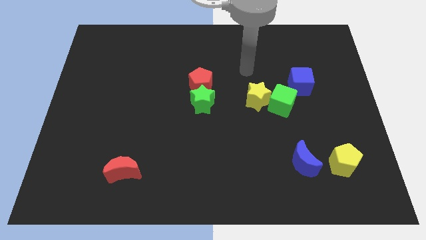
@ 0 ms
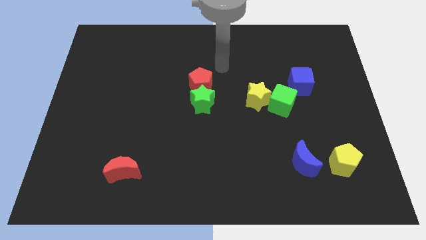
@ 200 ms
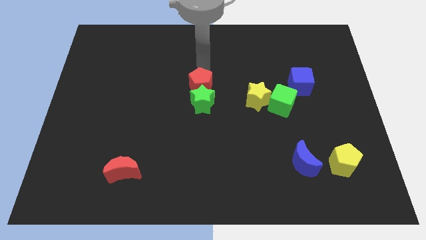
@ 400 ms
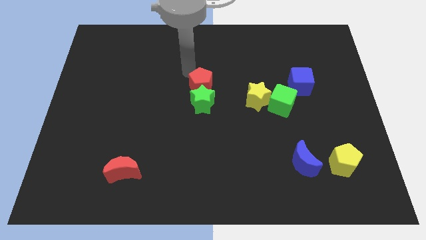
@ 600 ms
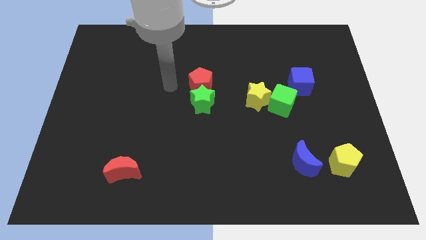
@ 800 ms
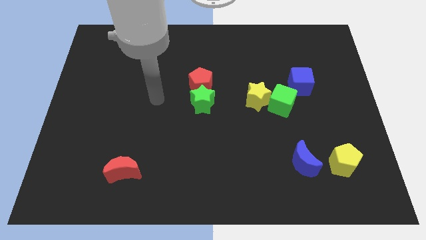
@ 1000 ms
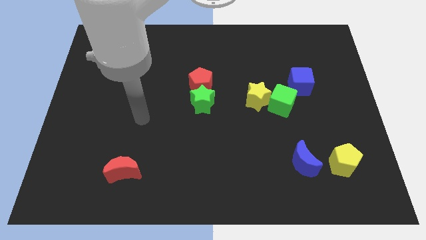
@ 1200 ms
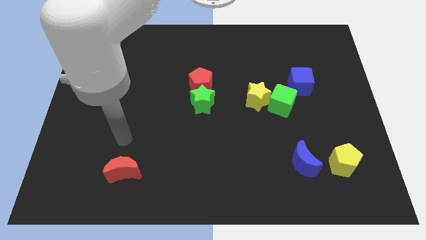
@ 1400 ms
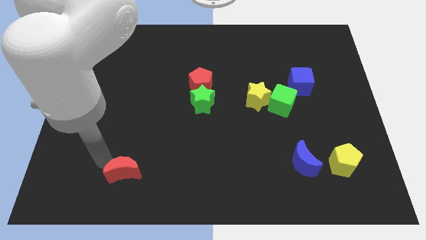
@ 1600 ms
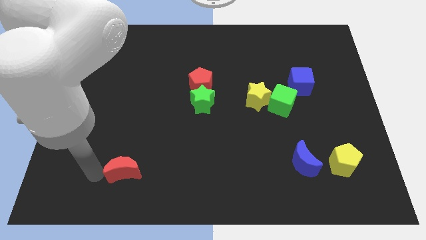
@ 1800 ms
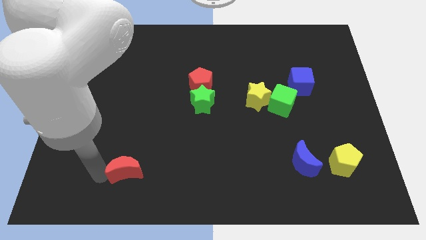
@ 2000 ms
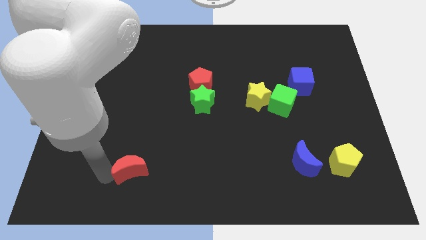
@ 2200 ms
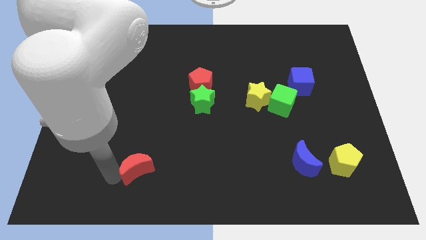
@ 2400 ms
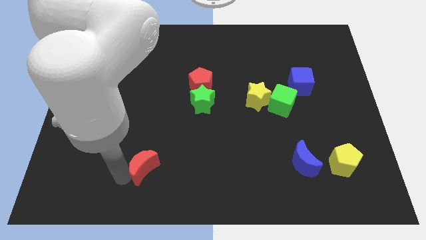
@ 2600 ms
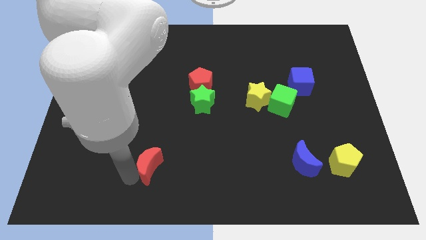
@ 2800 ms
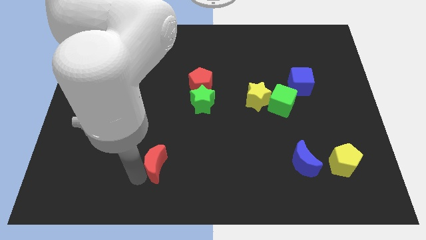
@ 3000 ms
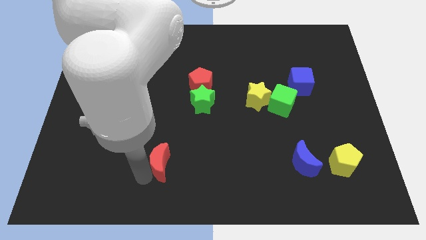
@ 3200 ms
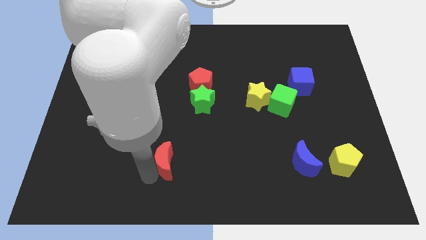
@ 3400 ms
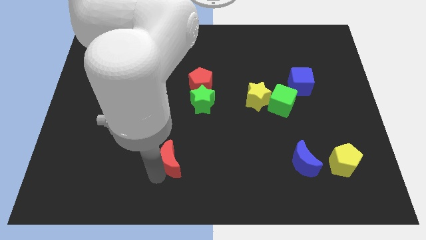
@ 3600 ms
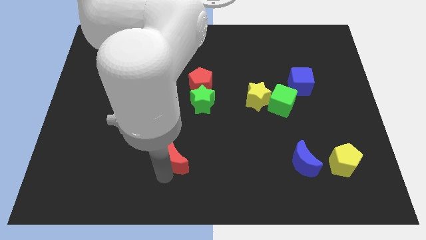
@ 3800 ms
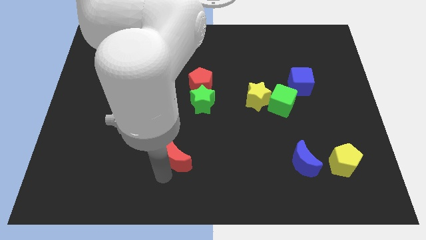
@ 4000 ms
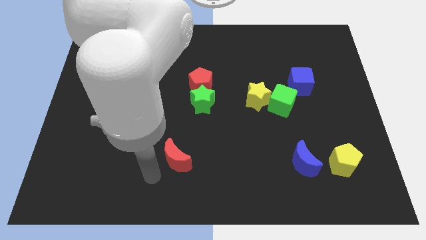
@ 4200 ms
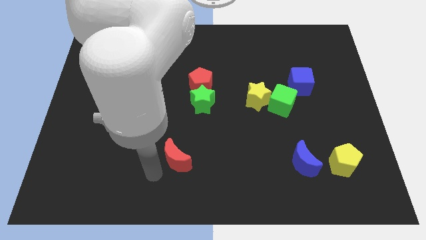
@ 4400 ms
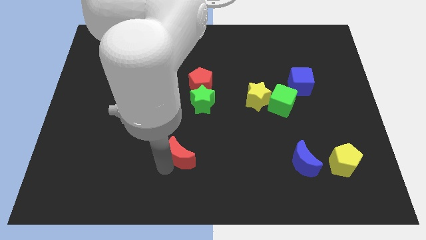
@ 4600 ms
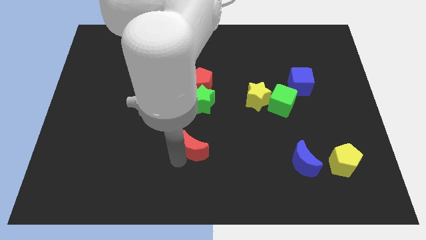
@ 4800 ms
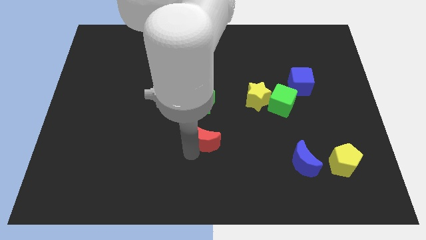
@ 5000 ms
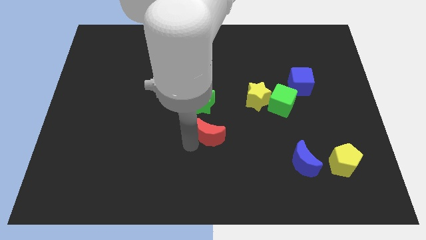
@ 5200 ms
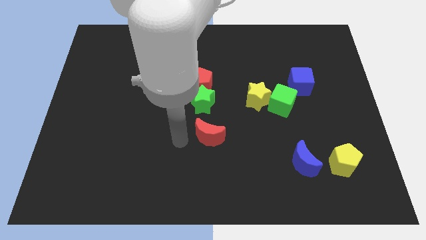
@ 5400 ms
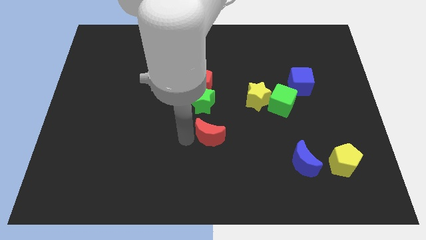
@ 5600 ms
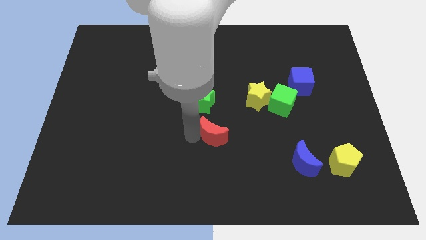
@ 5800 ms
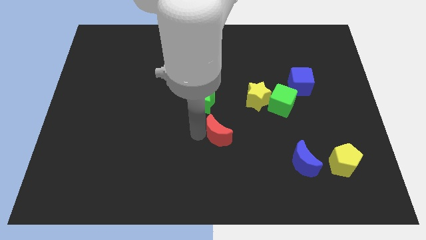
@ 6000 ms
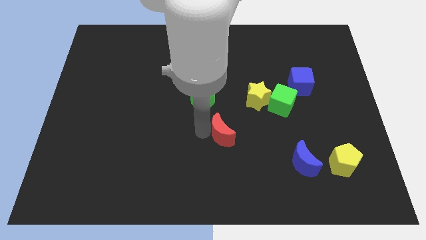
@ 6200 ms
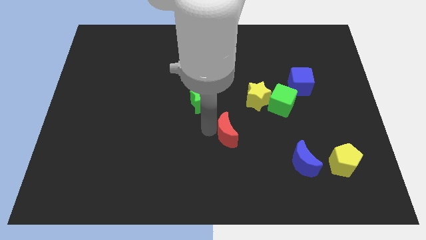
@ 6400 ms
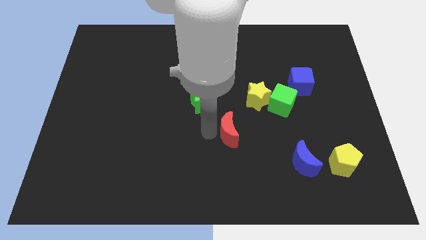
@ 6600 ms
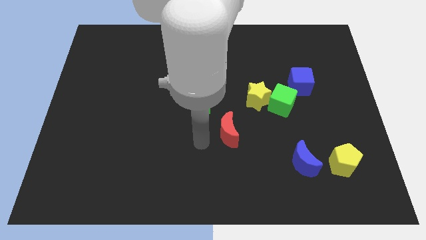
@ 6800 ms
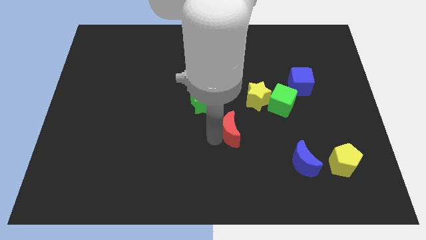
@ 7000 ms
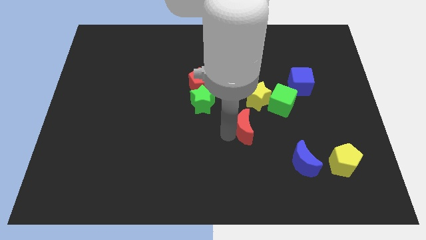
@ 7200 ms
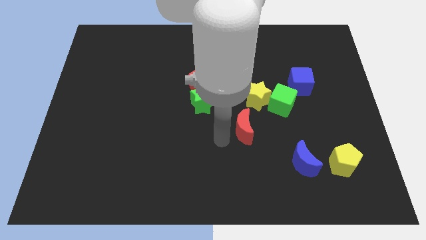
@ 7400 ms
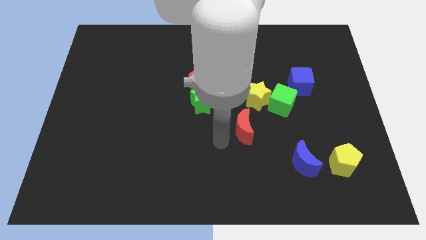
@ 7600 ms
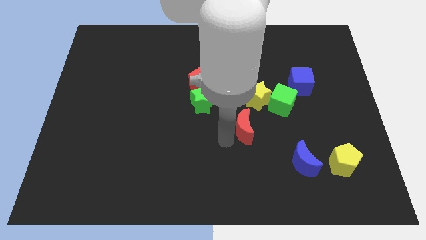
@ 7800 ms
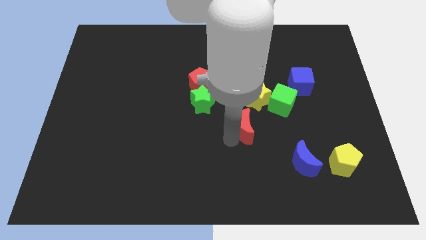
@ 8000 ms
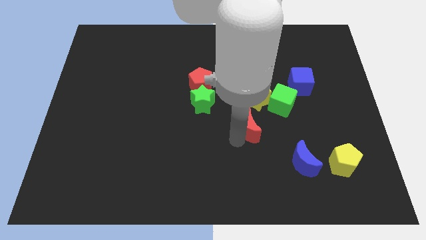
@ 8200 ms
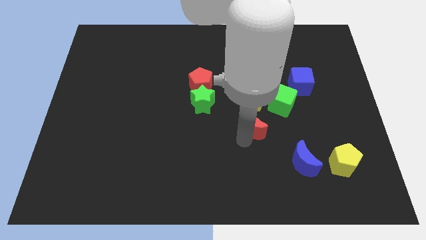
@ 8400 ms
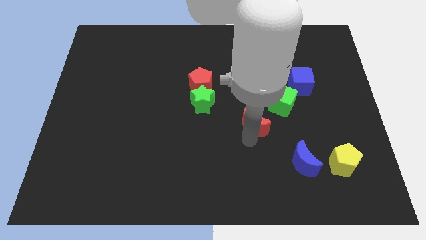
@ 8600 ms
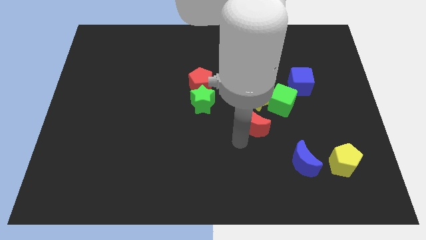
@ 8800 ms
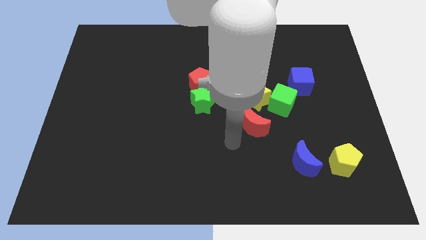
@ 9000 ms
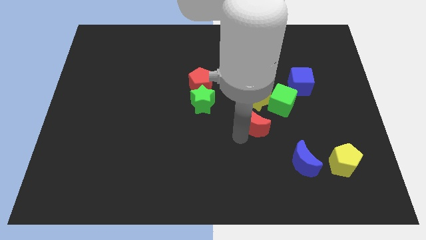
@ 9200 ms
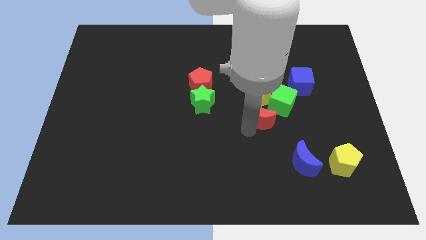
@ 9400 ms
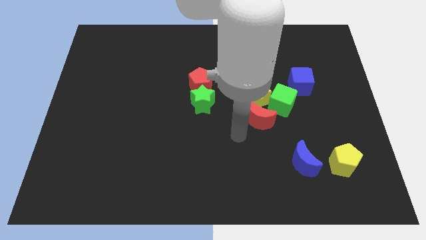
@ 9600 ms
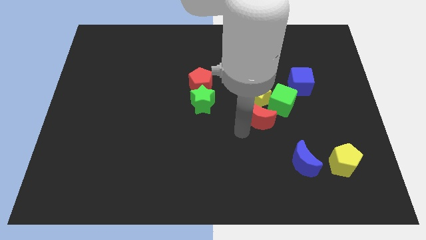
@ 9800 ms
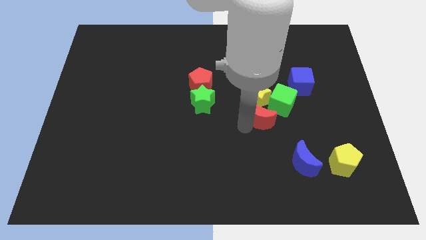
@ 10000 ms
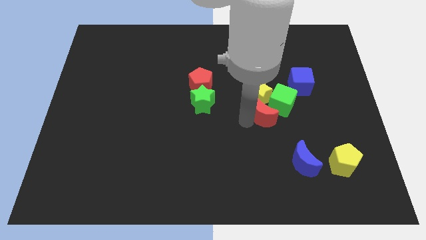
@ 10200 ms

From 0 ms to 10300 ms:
put the red moon next to the green cube

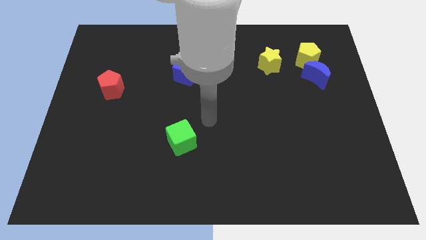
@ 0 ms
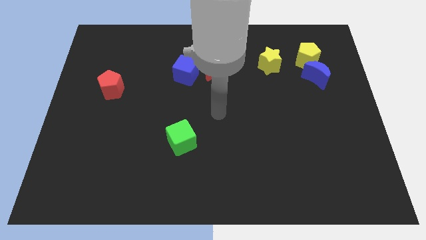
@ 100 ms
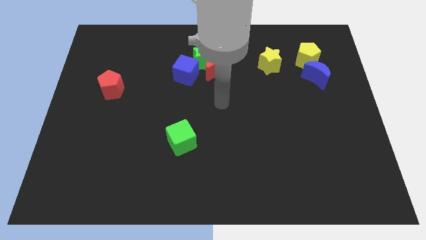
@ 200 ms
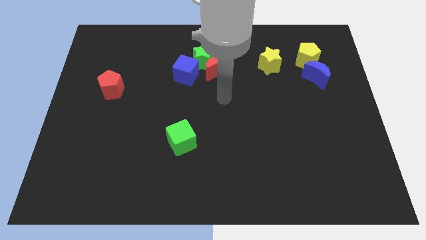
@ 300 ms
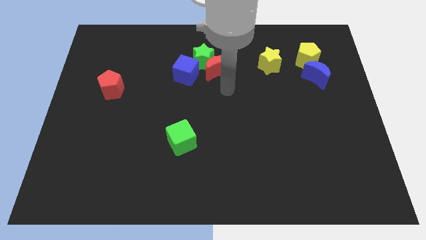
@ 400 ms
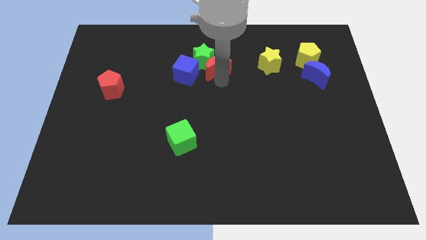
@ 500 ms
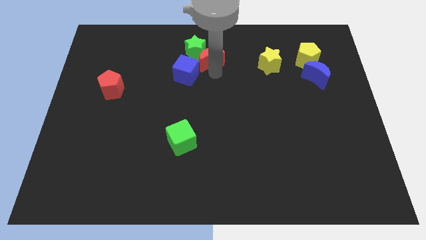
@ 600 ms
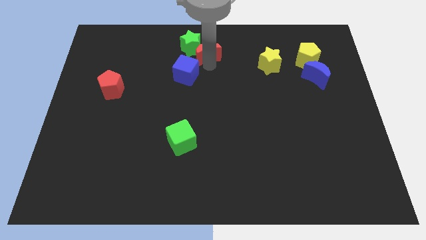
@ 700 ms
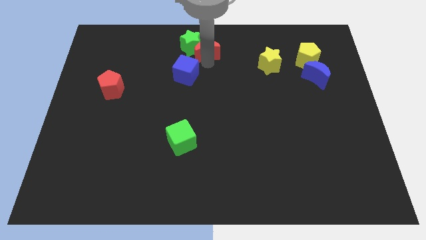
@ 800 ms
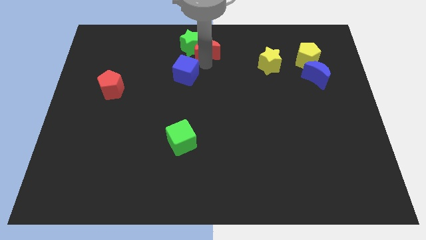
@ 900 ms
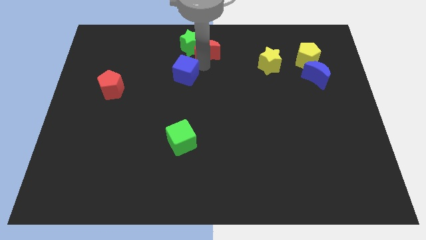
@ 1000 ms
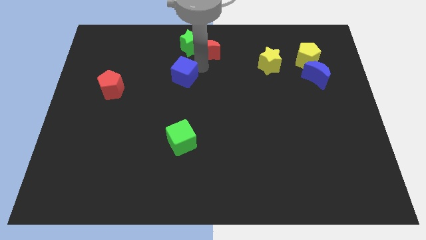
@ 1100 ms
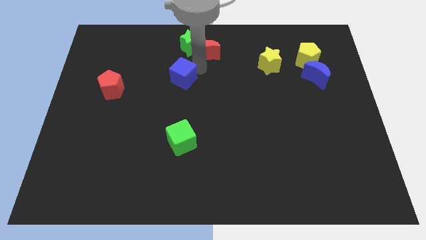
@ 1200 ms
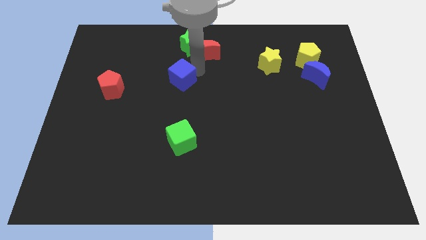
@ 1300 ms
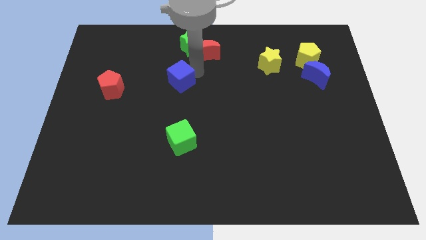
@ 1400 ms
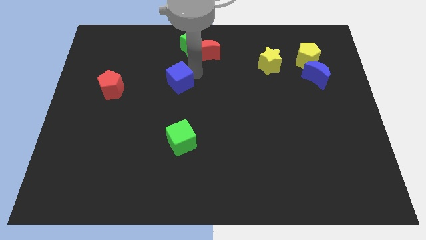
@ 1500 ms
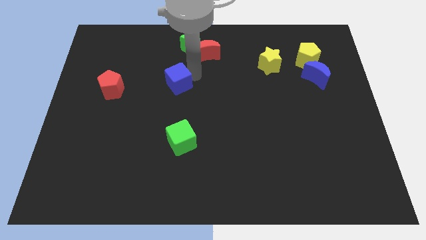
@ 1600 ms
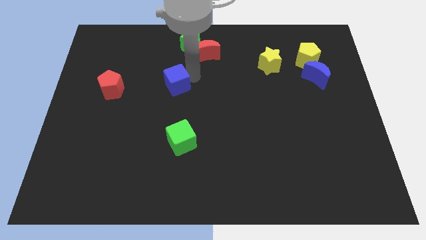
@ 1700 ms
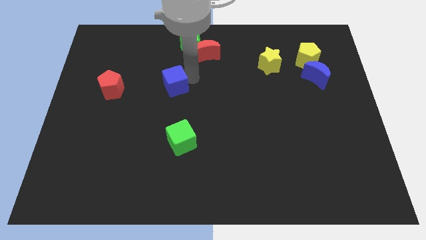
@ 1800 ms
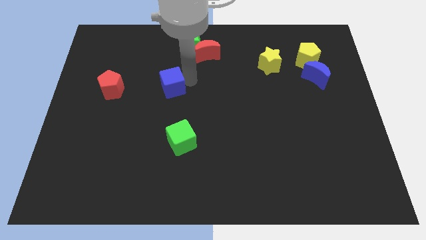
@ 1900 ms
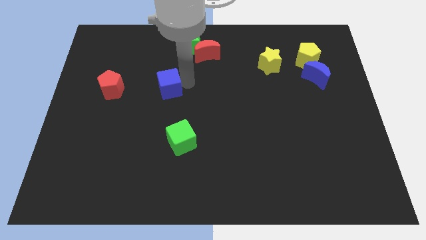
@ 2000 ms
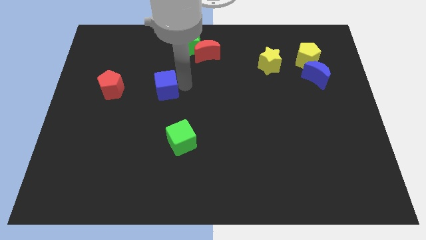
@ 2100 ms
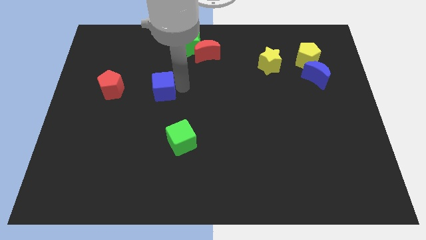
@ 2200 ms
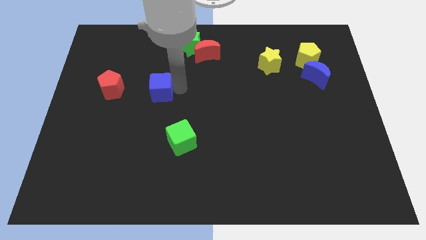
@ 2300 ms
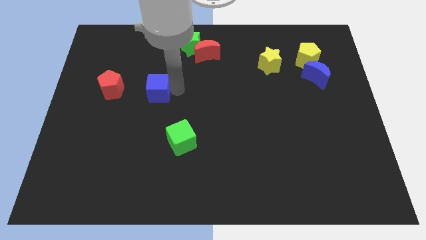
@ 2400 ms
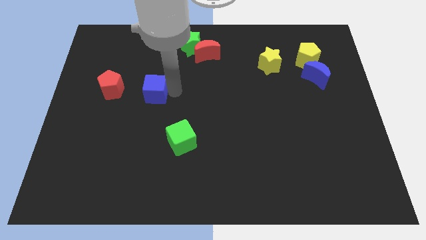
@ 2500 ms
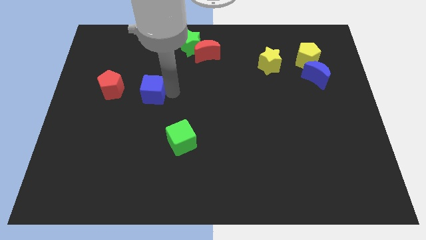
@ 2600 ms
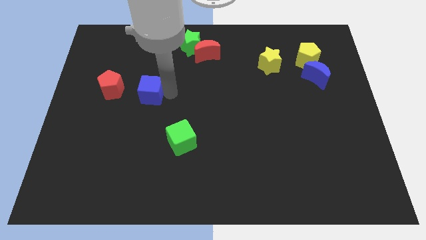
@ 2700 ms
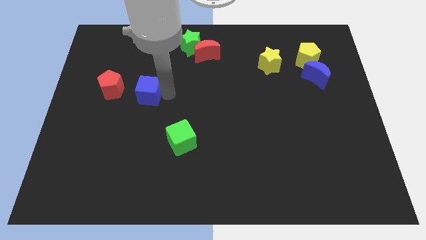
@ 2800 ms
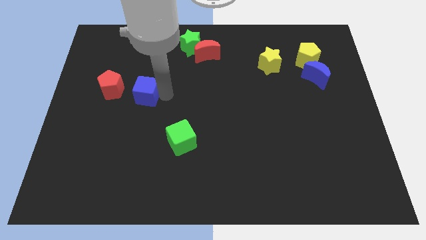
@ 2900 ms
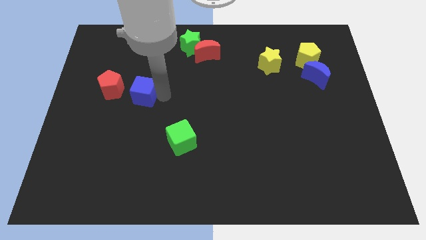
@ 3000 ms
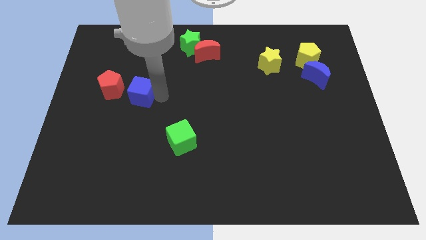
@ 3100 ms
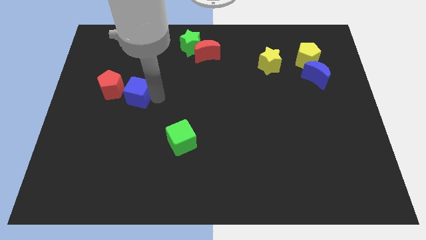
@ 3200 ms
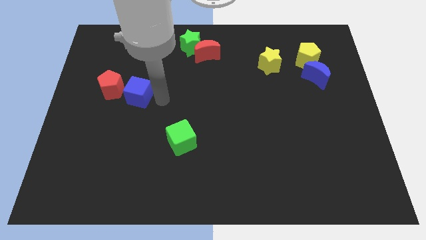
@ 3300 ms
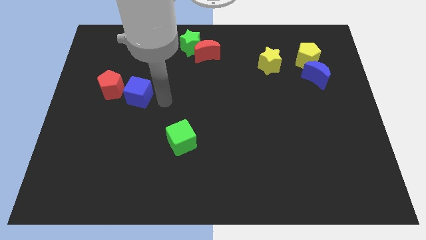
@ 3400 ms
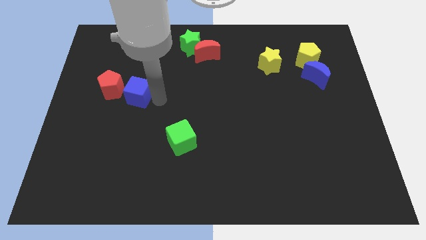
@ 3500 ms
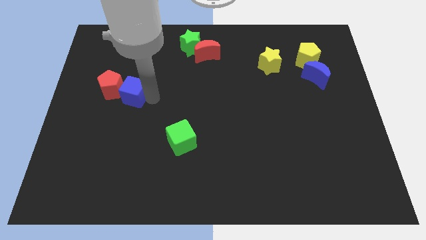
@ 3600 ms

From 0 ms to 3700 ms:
push the blue cube close to the red pentagon
